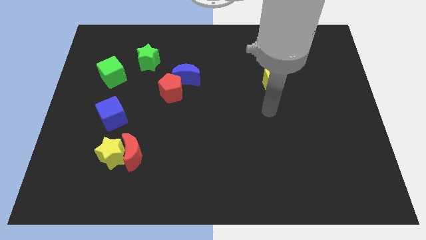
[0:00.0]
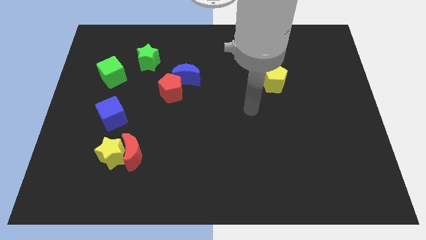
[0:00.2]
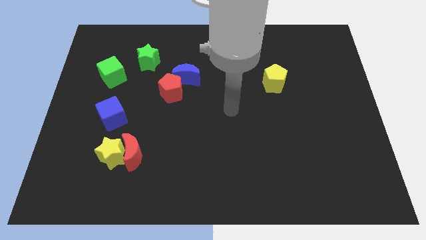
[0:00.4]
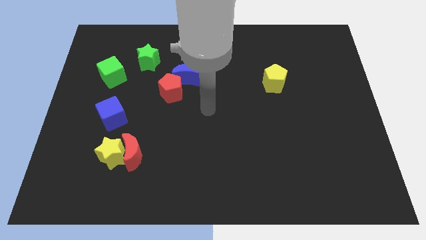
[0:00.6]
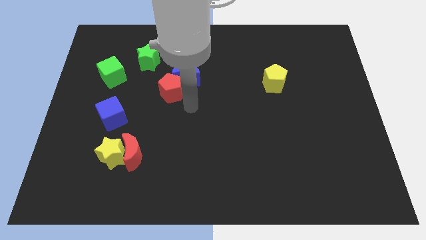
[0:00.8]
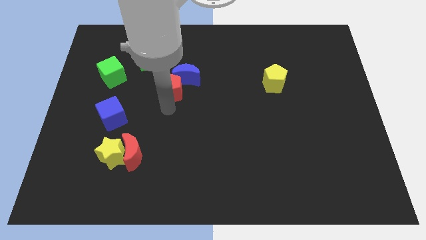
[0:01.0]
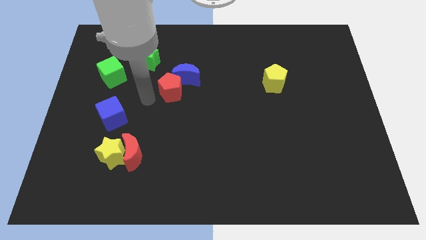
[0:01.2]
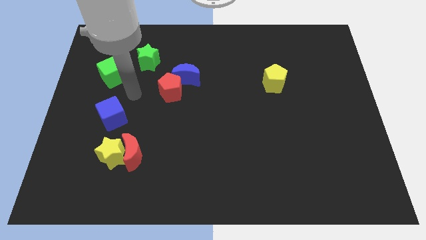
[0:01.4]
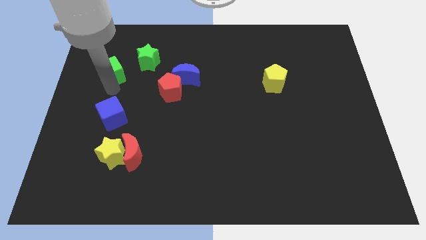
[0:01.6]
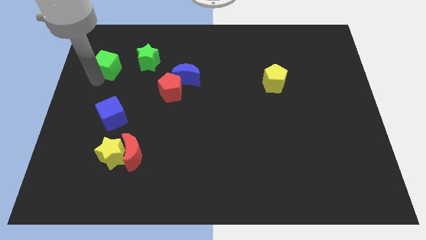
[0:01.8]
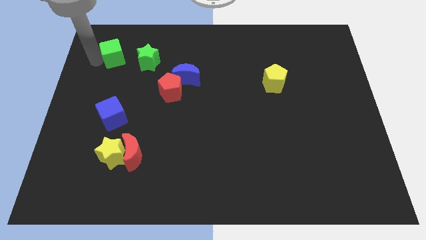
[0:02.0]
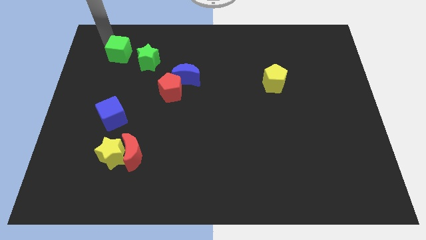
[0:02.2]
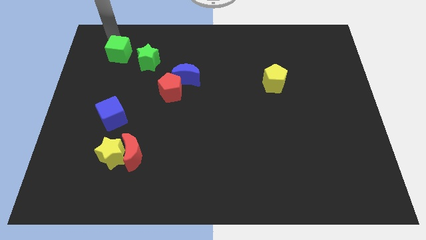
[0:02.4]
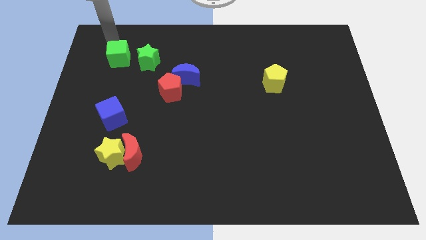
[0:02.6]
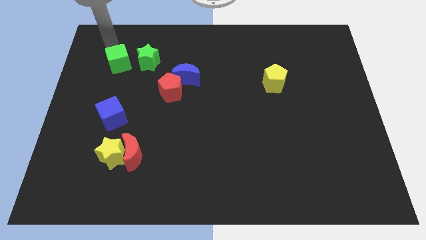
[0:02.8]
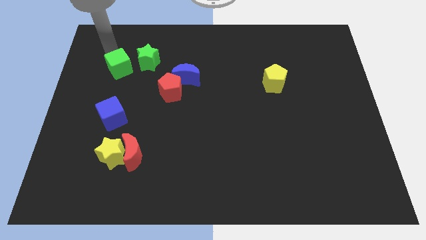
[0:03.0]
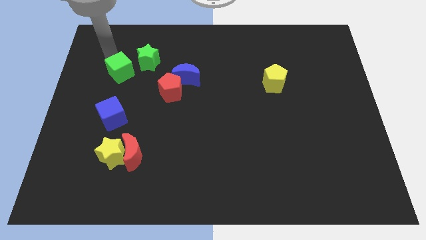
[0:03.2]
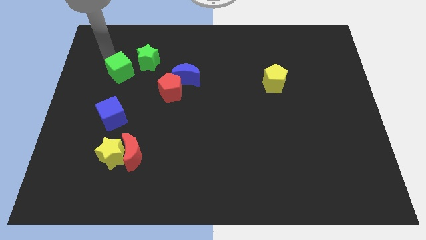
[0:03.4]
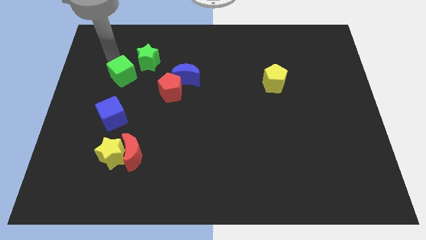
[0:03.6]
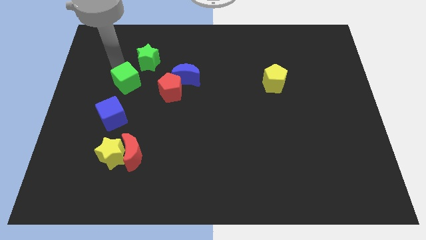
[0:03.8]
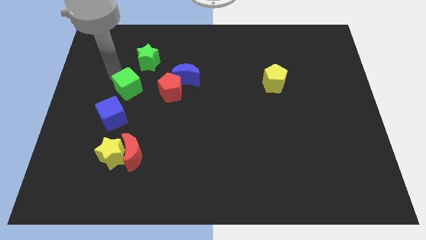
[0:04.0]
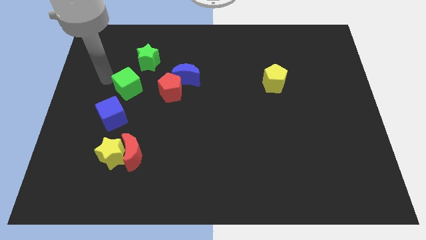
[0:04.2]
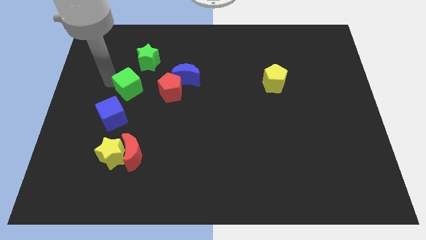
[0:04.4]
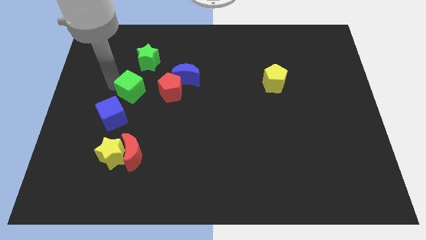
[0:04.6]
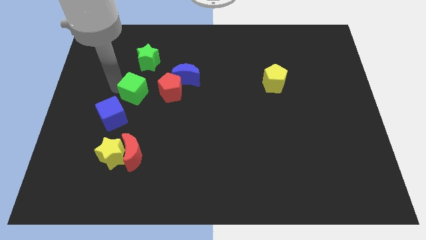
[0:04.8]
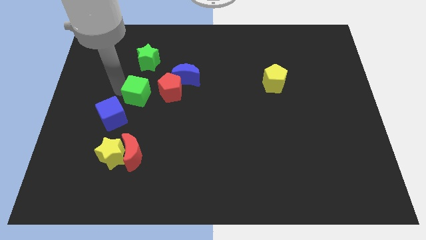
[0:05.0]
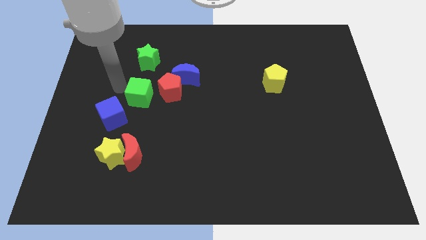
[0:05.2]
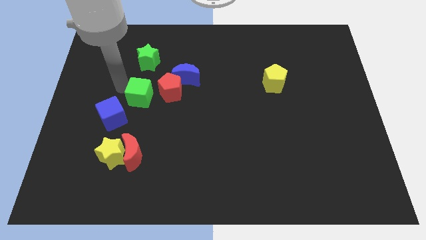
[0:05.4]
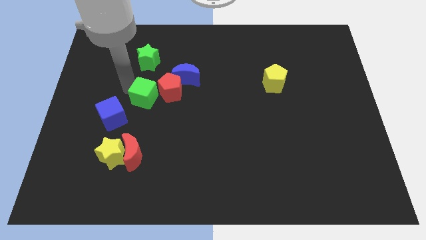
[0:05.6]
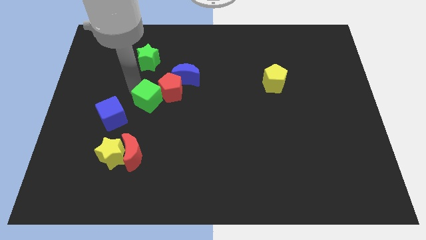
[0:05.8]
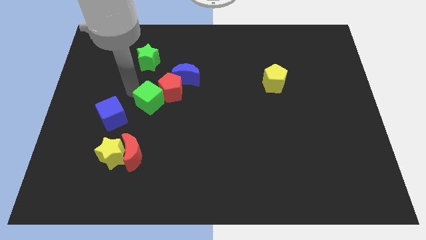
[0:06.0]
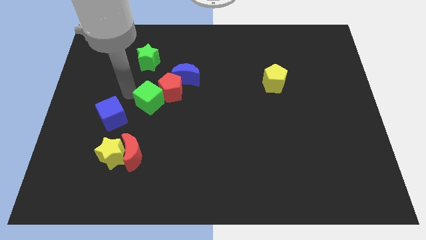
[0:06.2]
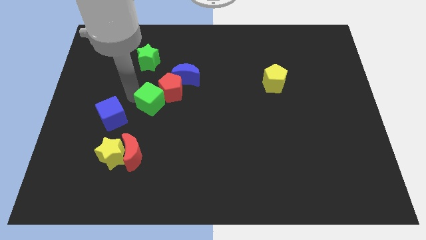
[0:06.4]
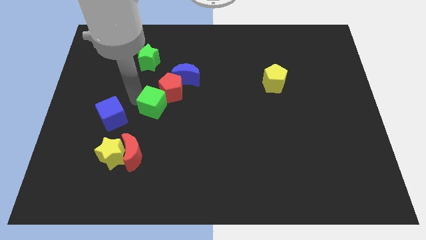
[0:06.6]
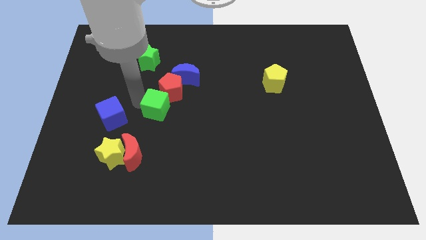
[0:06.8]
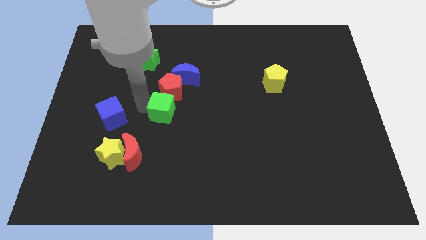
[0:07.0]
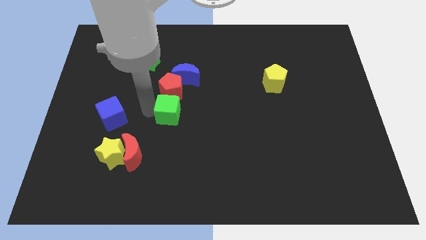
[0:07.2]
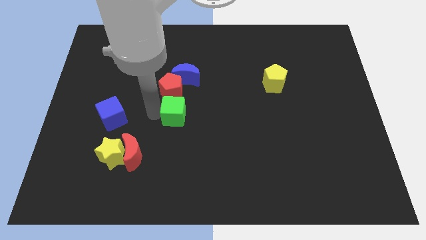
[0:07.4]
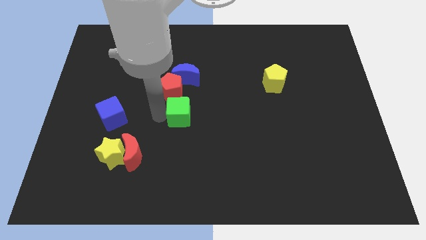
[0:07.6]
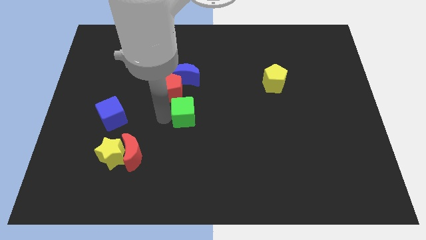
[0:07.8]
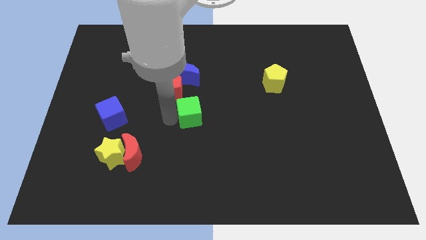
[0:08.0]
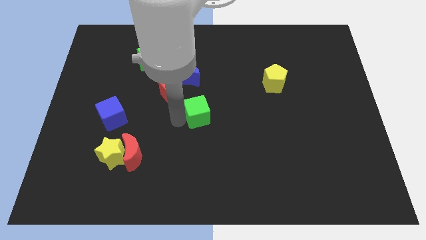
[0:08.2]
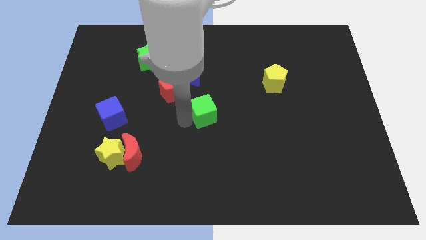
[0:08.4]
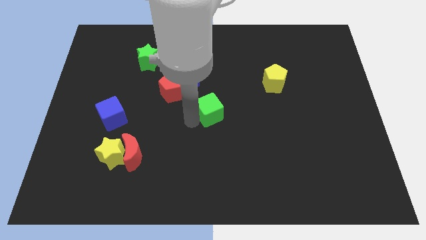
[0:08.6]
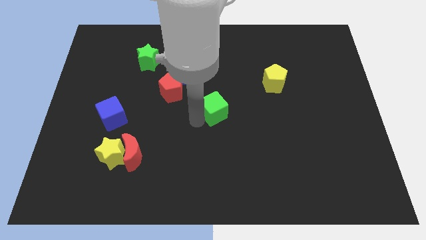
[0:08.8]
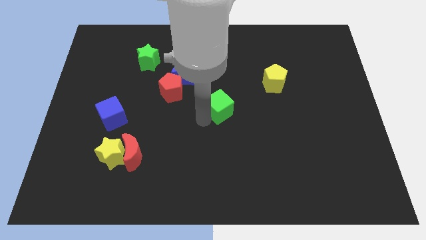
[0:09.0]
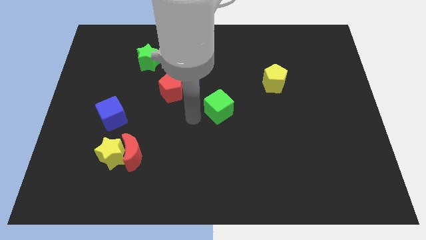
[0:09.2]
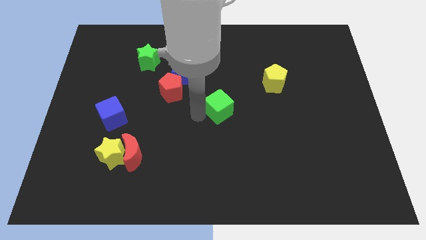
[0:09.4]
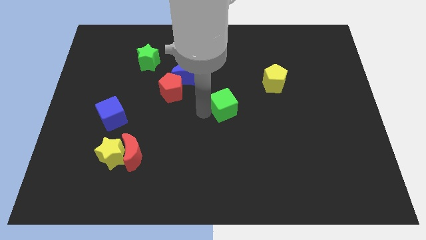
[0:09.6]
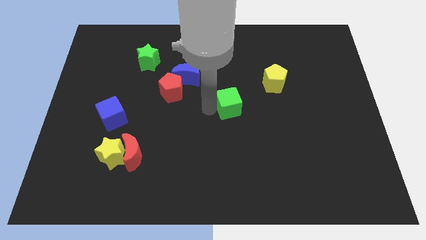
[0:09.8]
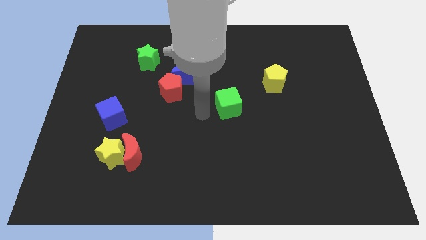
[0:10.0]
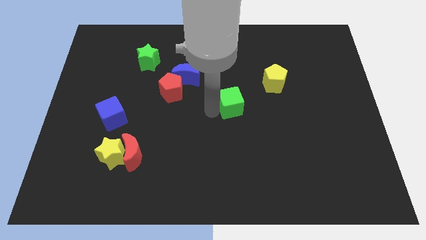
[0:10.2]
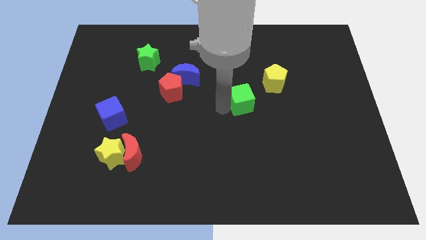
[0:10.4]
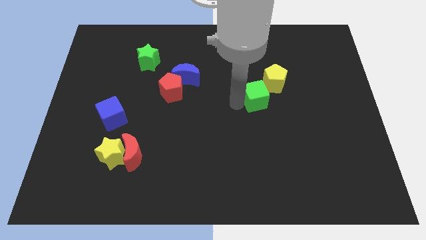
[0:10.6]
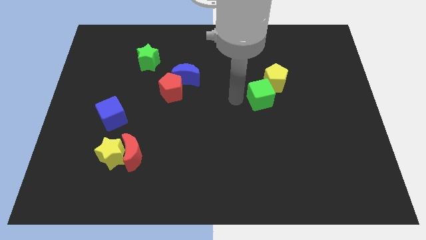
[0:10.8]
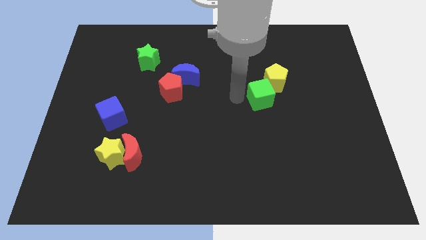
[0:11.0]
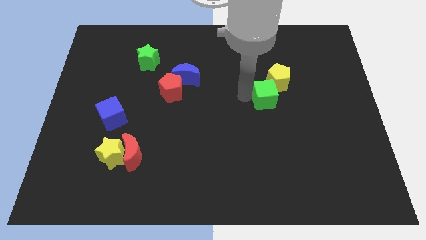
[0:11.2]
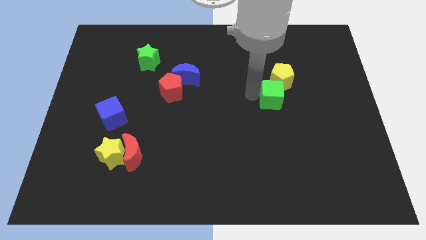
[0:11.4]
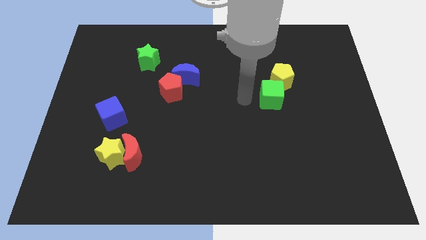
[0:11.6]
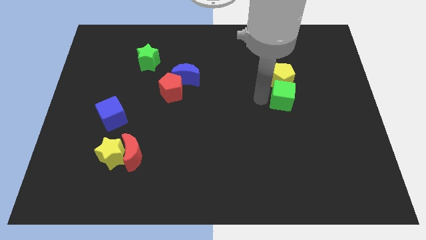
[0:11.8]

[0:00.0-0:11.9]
slide the green cube to the bottom right side of the yellow pentagon

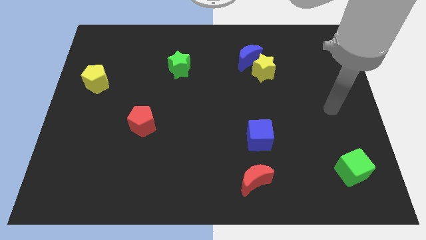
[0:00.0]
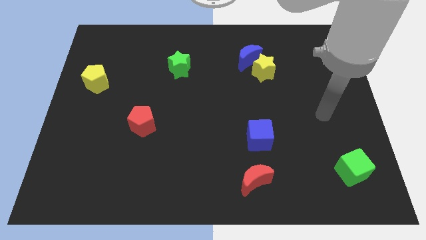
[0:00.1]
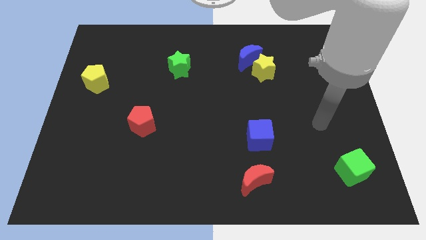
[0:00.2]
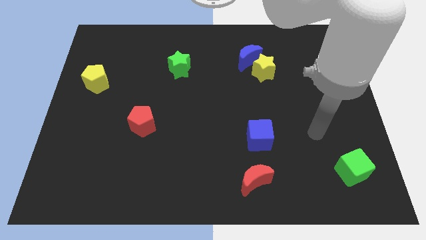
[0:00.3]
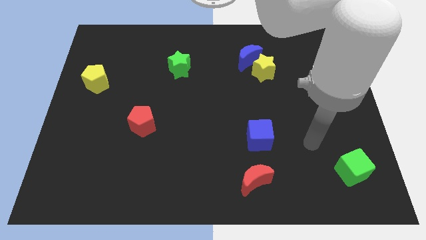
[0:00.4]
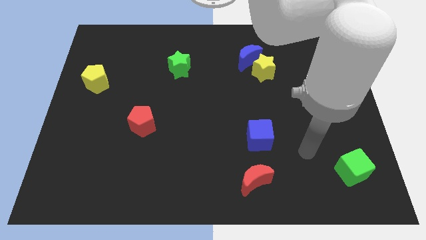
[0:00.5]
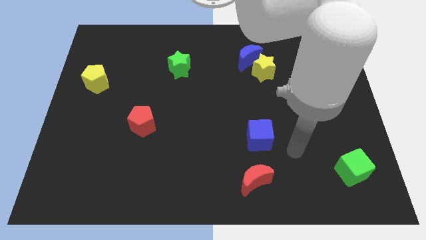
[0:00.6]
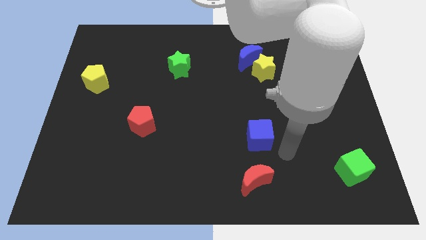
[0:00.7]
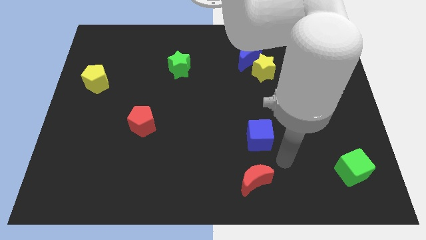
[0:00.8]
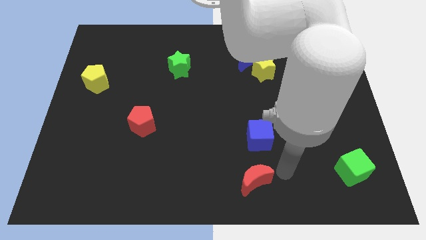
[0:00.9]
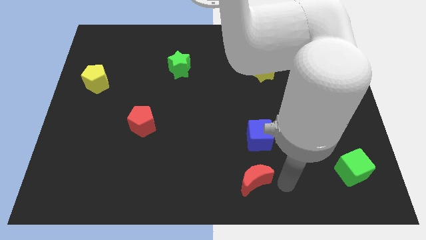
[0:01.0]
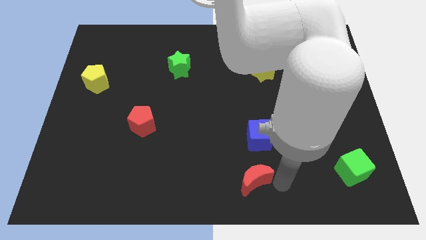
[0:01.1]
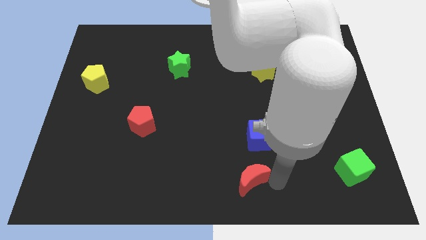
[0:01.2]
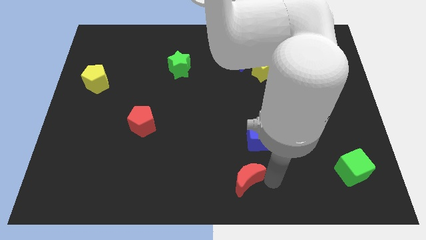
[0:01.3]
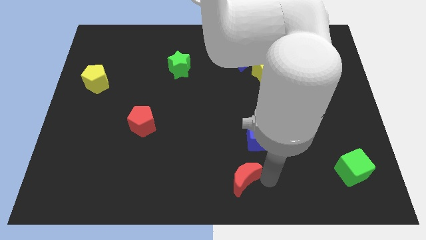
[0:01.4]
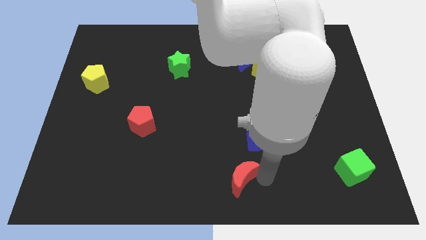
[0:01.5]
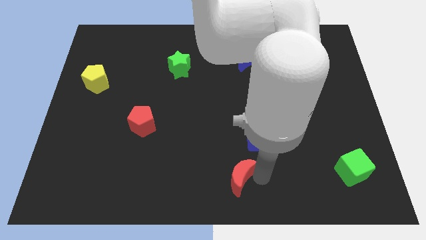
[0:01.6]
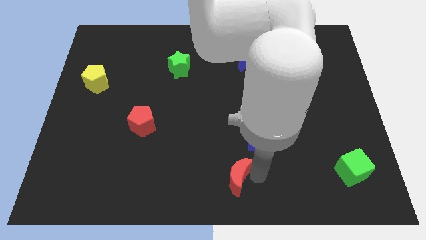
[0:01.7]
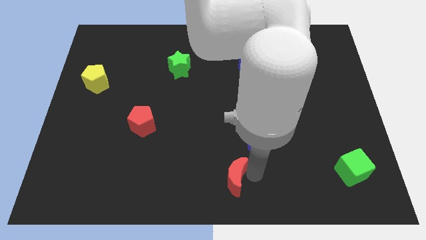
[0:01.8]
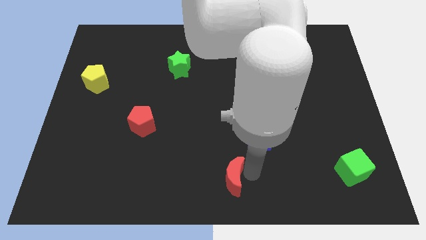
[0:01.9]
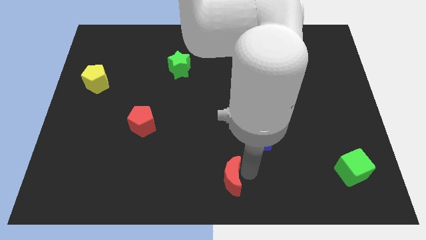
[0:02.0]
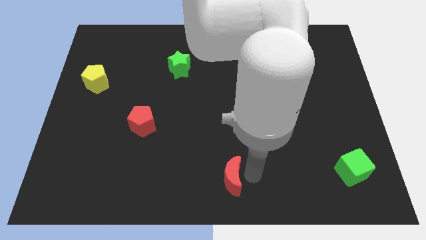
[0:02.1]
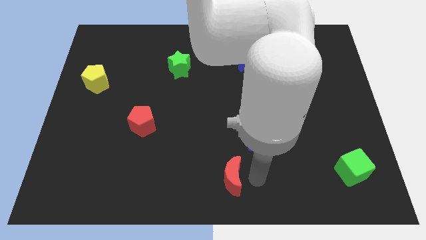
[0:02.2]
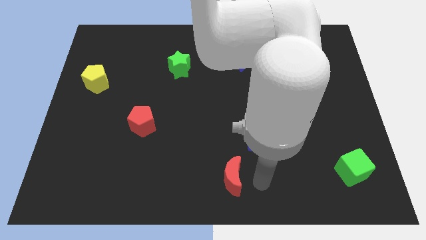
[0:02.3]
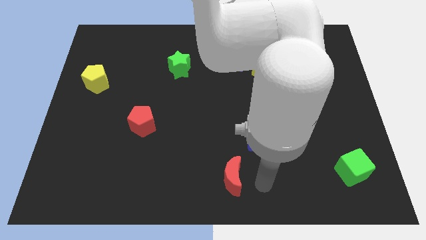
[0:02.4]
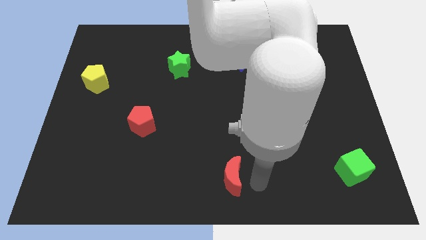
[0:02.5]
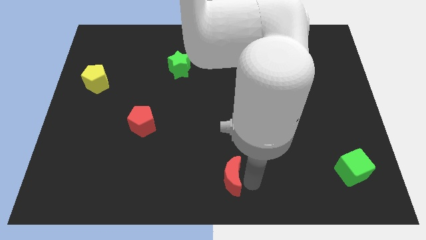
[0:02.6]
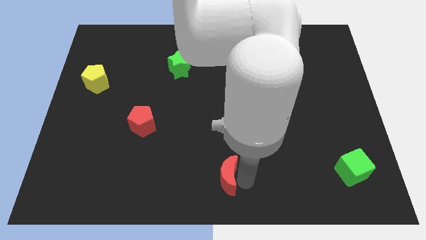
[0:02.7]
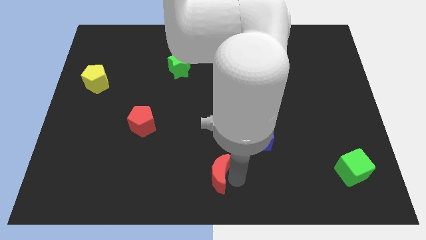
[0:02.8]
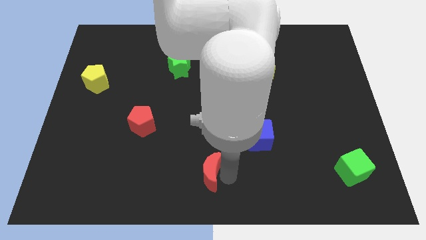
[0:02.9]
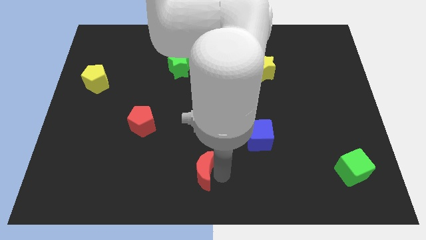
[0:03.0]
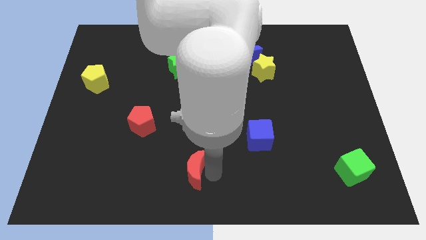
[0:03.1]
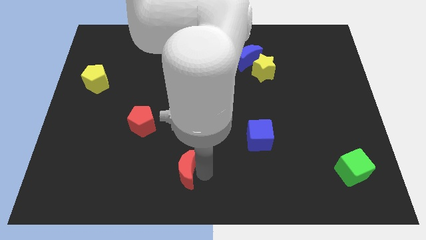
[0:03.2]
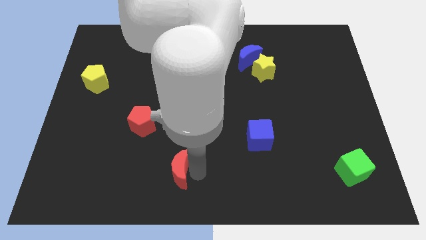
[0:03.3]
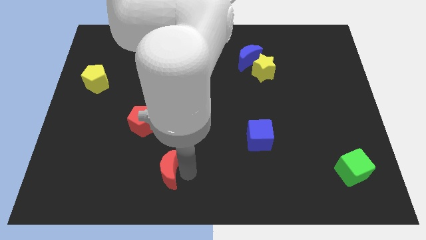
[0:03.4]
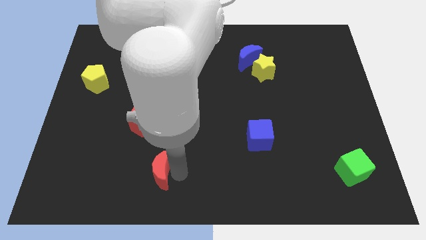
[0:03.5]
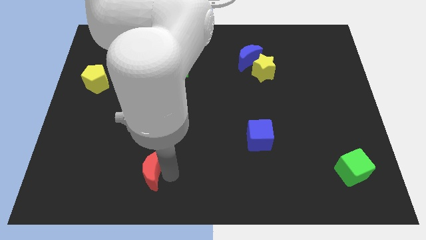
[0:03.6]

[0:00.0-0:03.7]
push the red moon to the bottom side of the red pentagon
